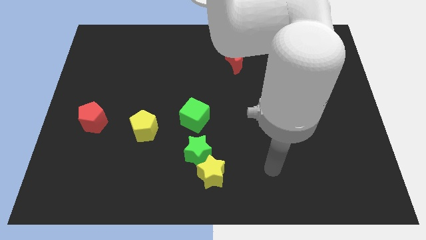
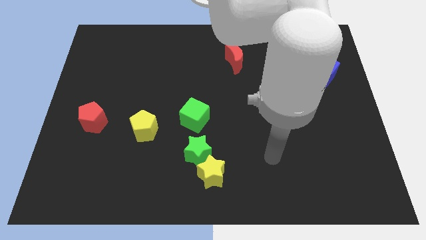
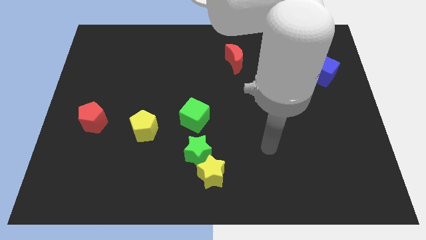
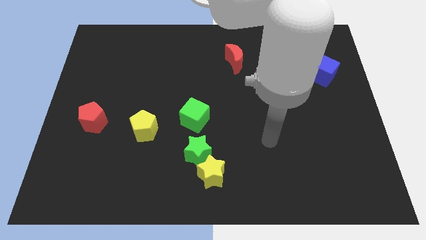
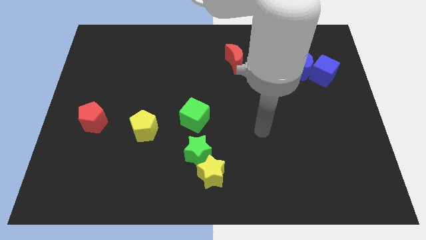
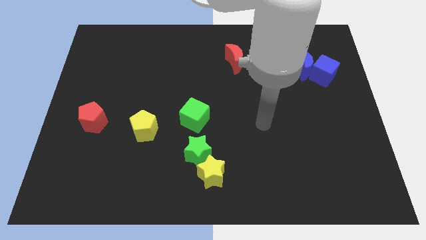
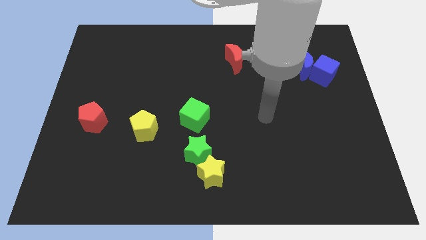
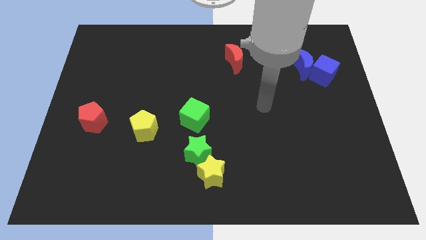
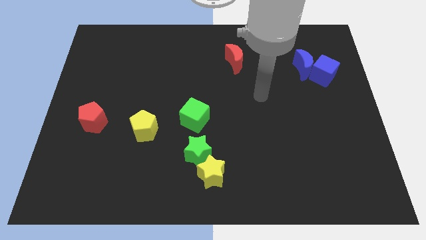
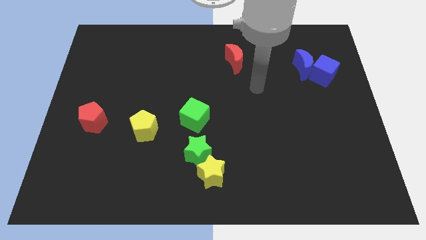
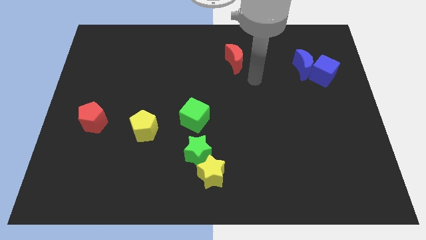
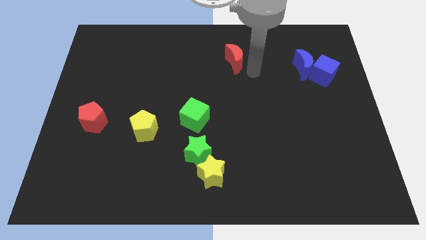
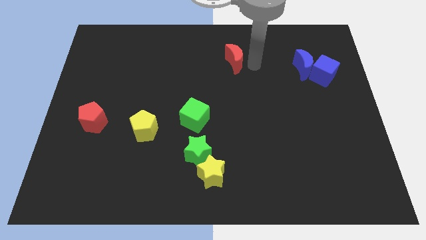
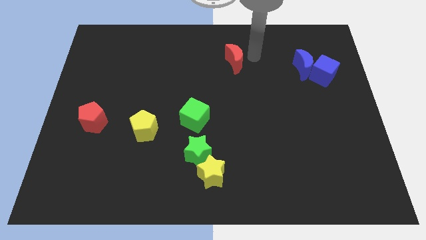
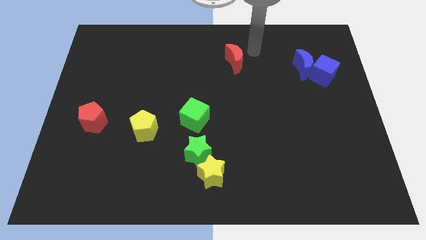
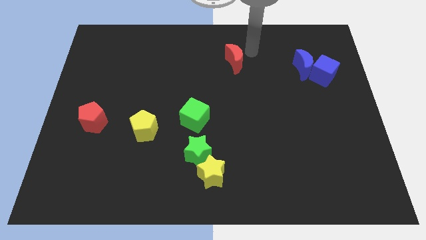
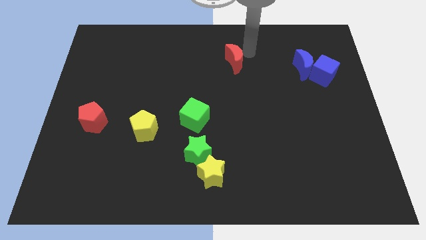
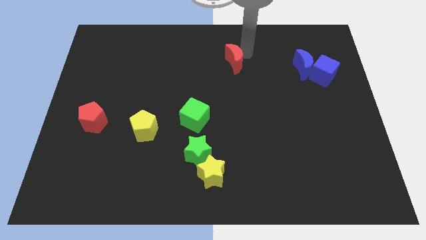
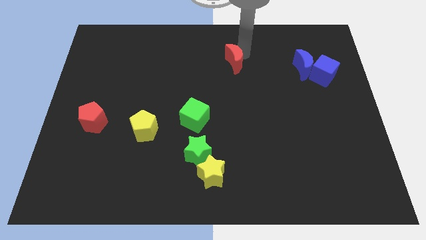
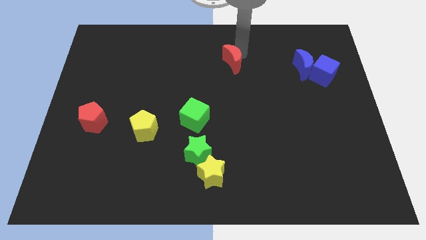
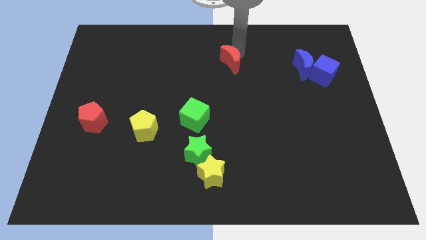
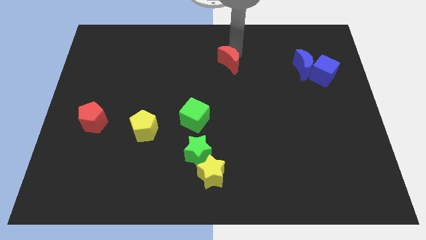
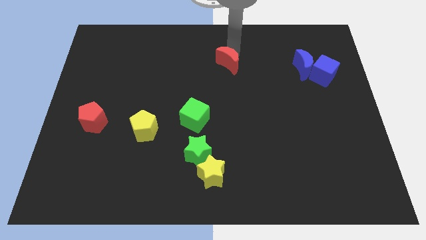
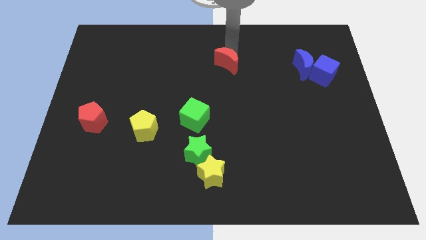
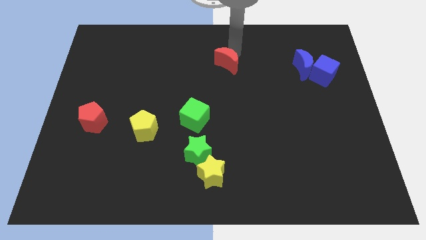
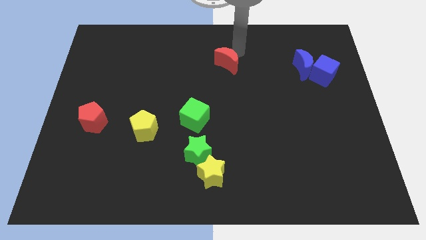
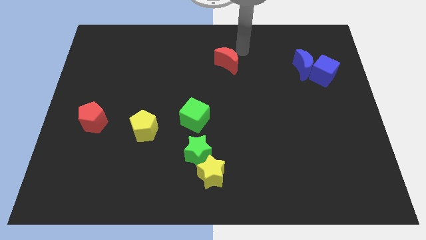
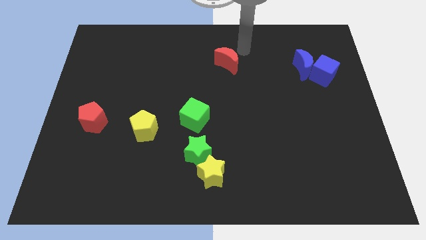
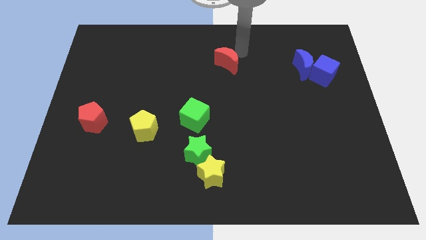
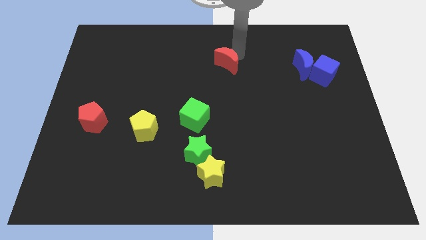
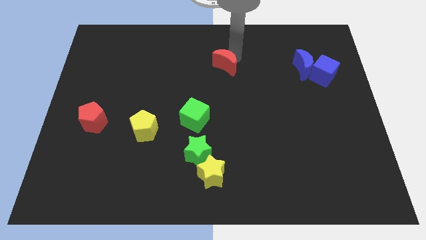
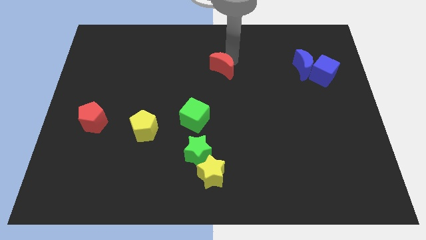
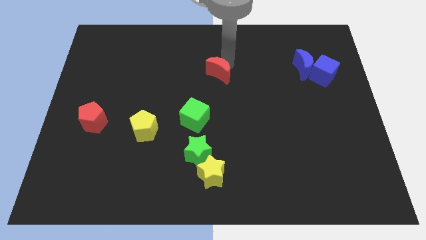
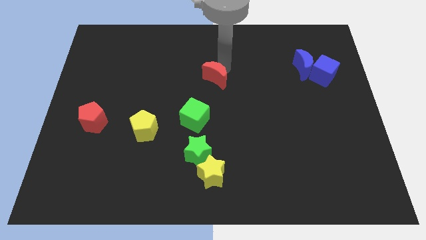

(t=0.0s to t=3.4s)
slightly push the red moon downwards and to the left

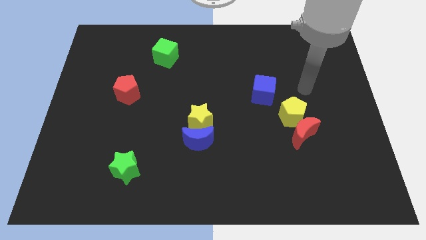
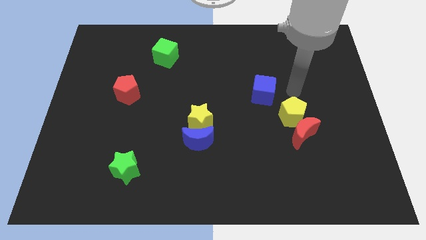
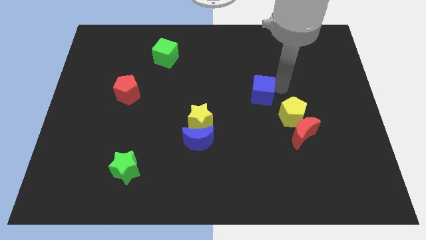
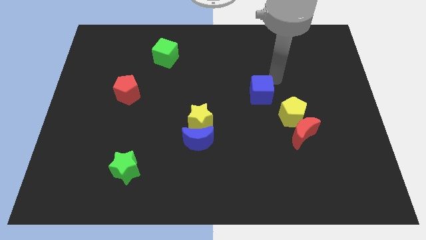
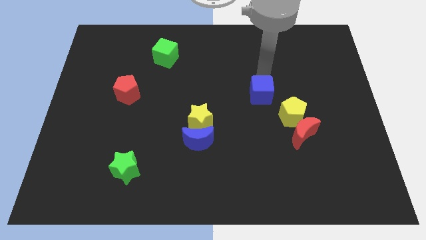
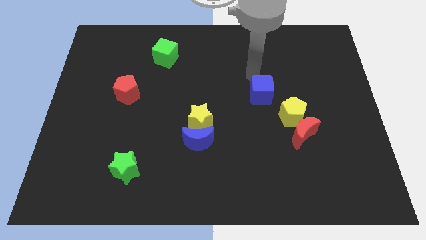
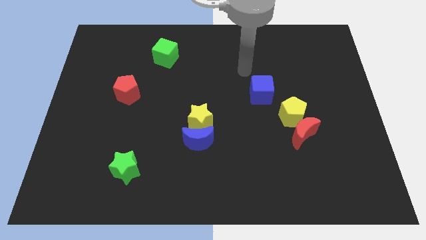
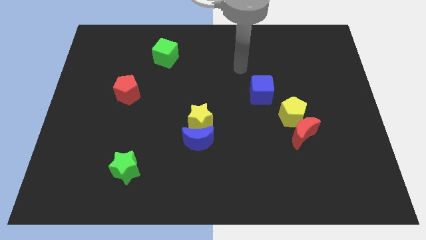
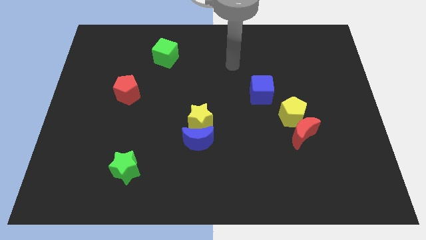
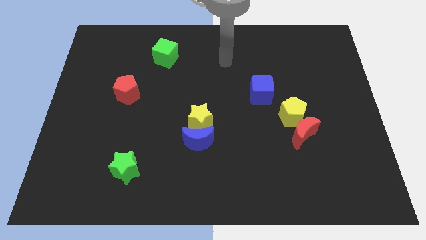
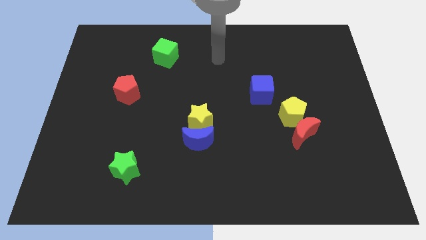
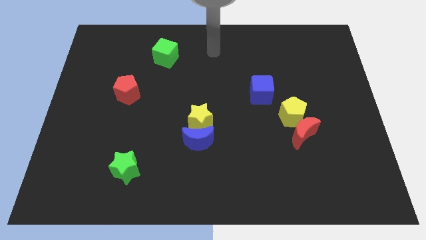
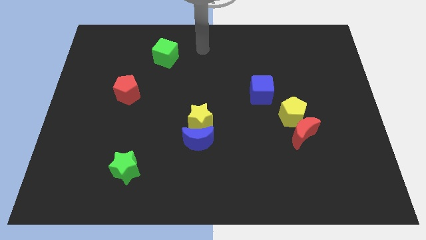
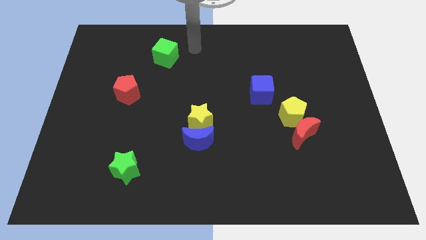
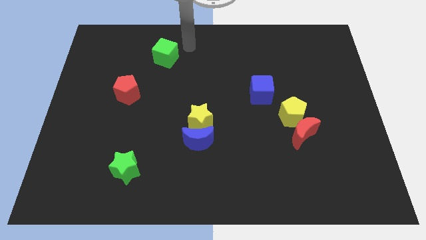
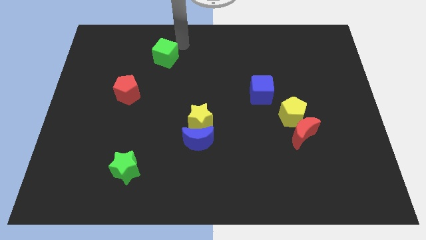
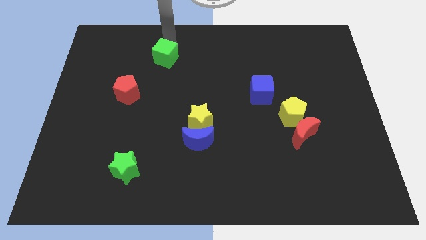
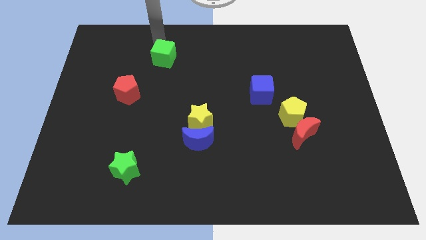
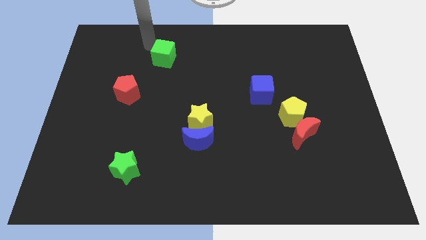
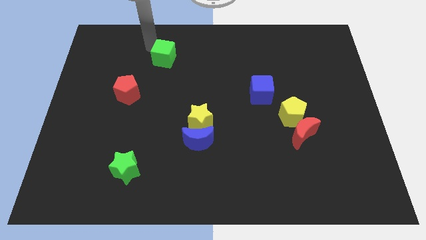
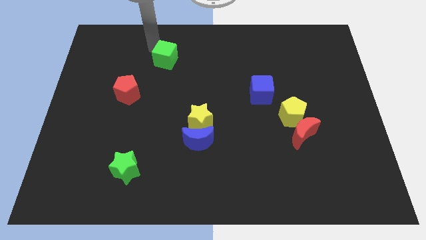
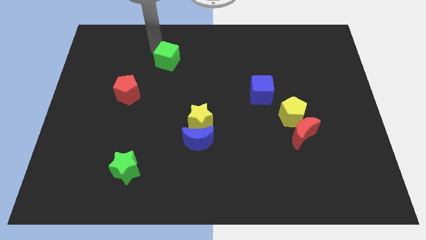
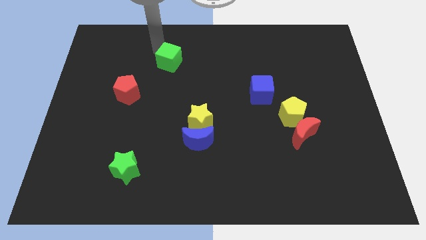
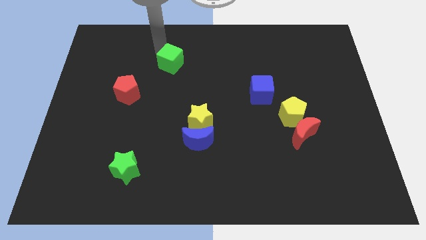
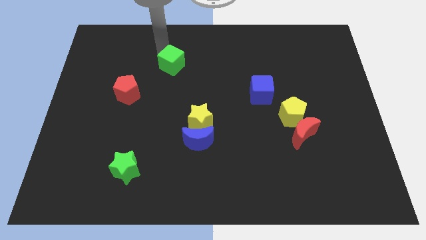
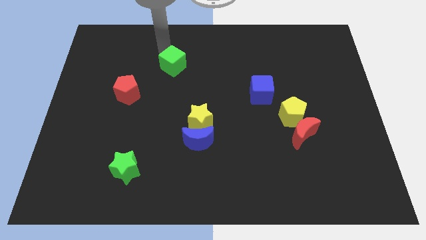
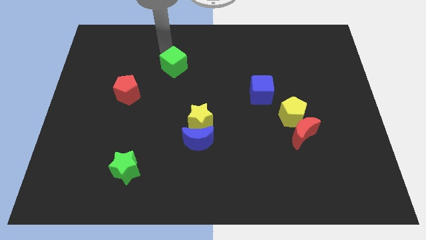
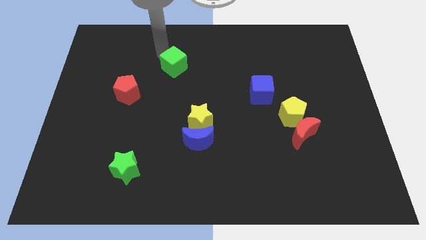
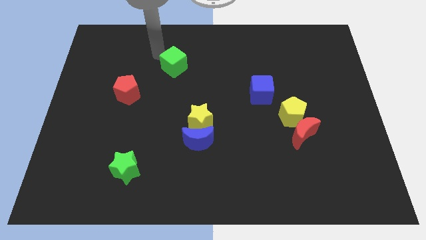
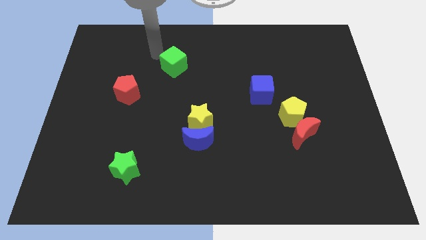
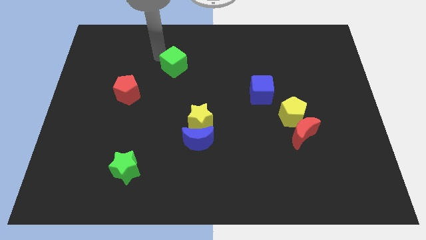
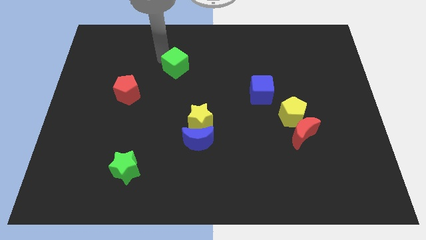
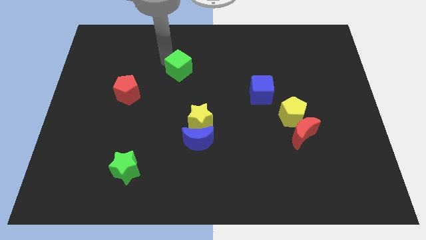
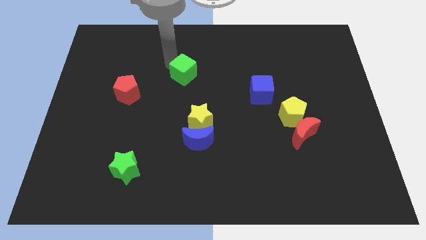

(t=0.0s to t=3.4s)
push the green cube down and then to the right slightly

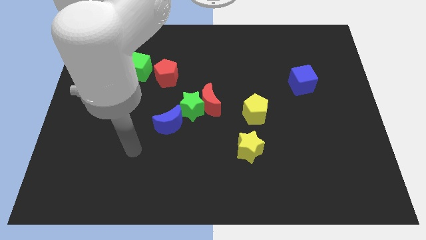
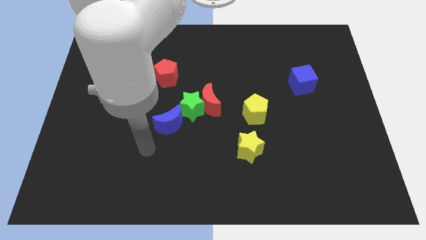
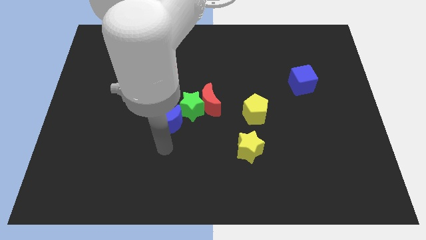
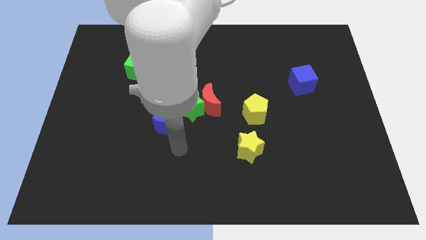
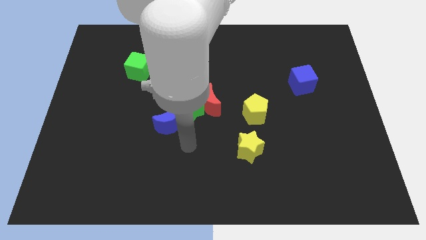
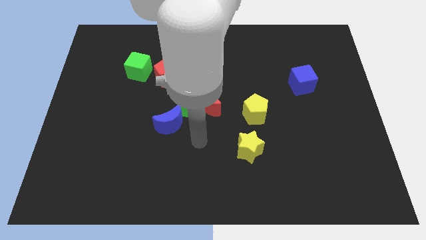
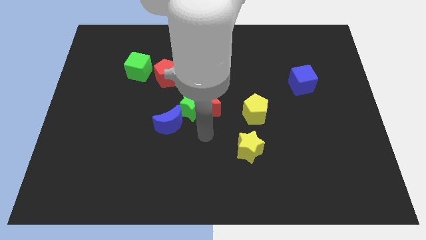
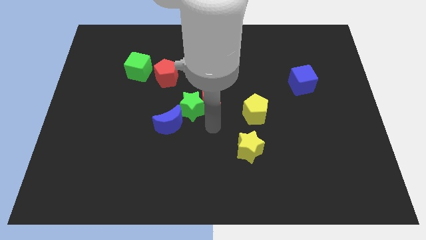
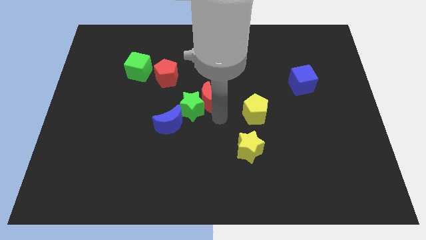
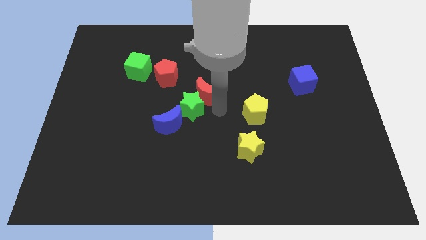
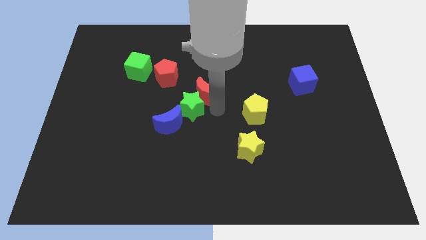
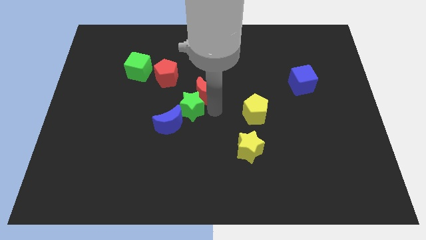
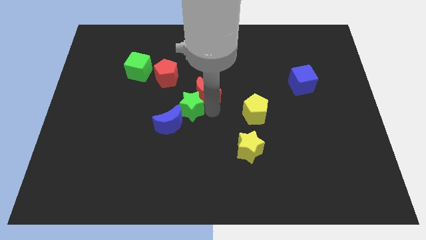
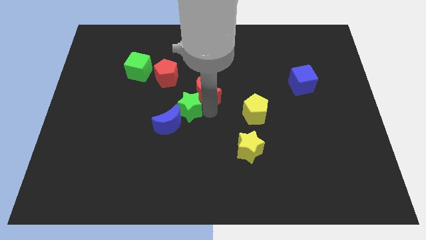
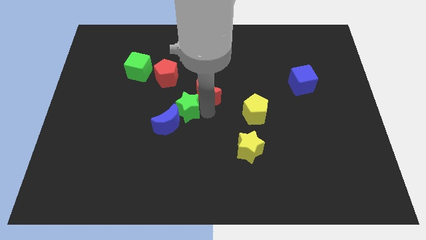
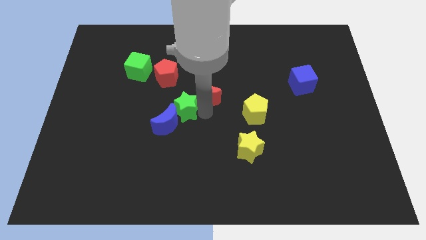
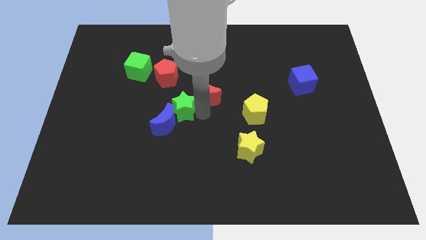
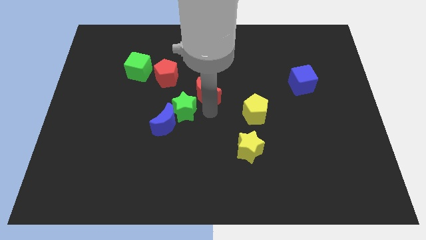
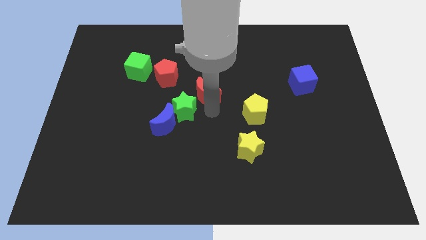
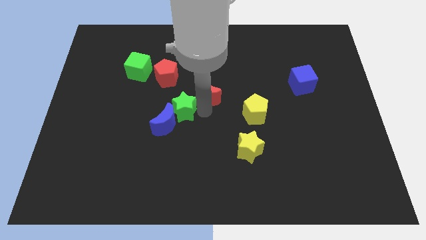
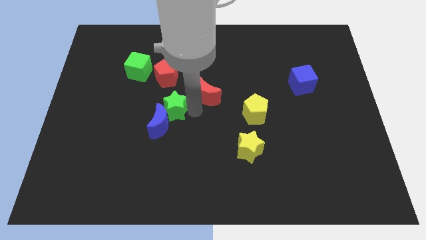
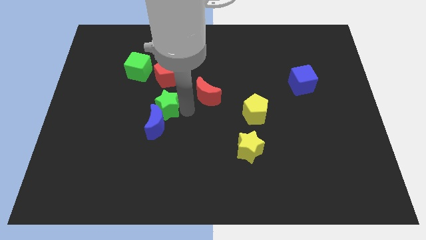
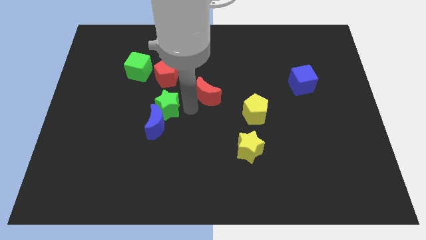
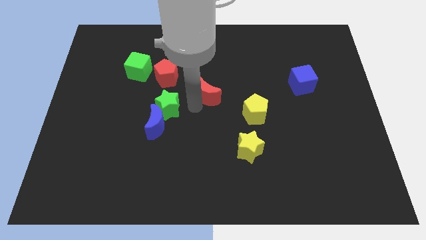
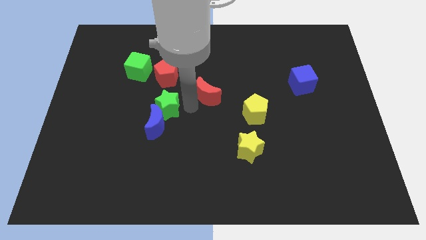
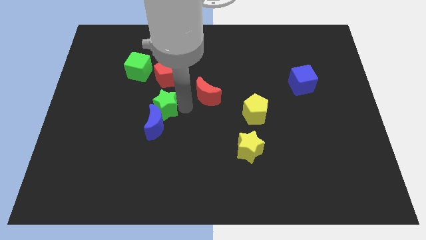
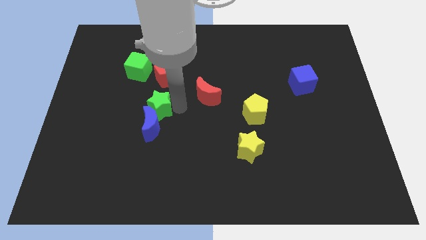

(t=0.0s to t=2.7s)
slightly slide the green star left
